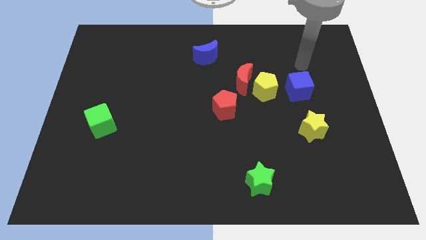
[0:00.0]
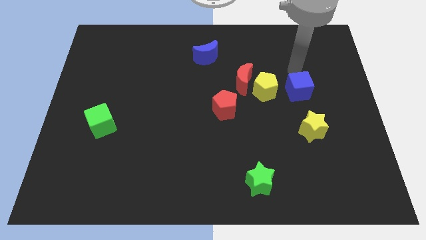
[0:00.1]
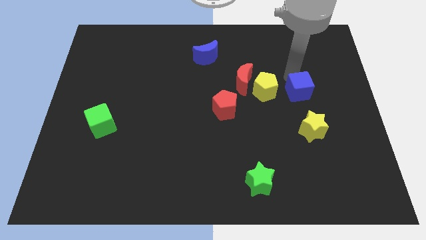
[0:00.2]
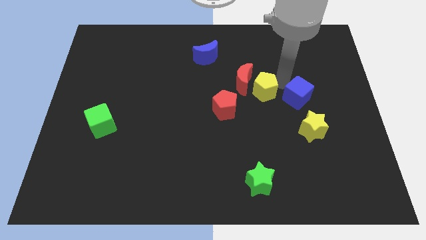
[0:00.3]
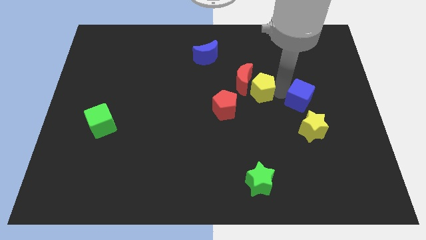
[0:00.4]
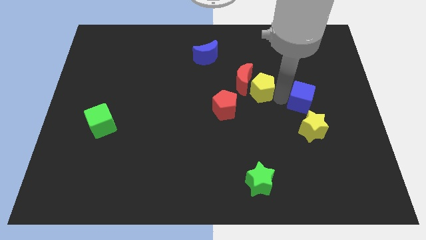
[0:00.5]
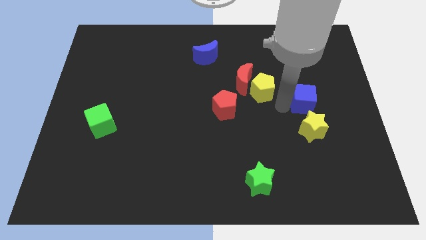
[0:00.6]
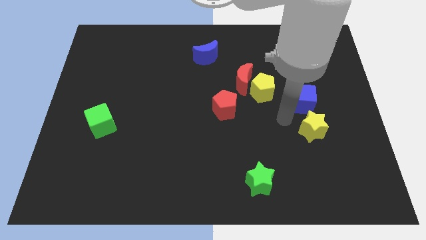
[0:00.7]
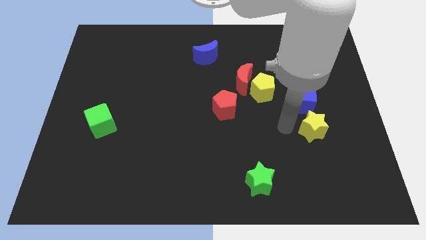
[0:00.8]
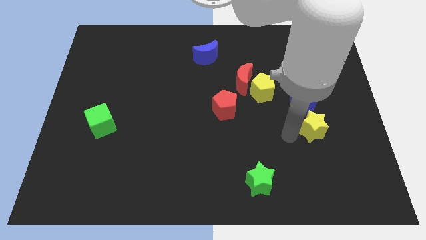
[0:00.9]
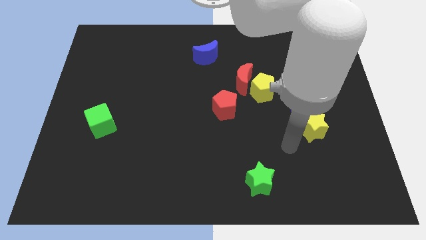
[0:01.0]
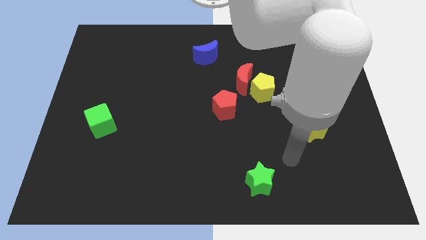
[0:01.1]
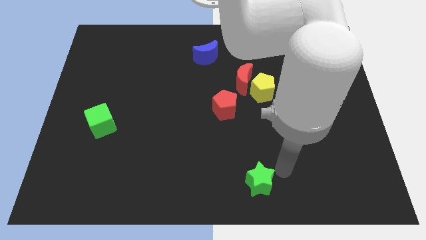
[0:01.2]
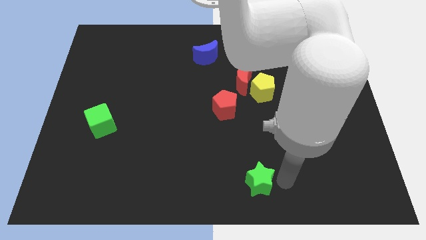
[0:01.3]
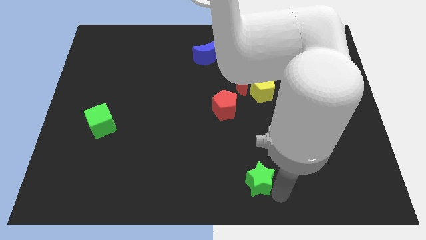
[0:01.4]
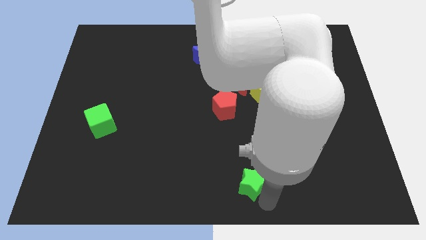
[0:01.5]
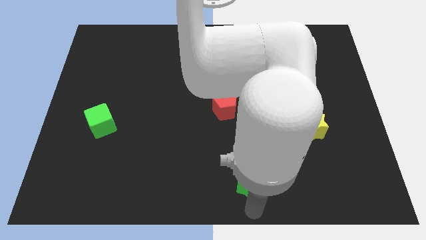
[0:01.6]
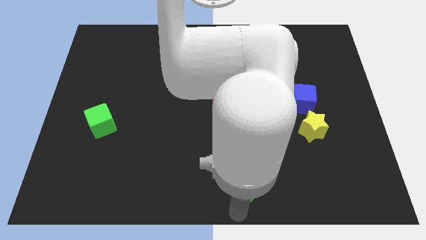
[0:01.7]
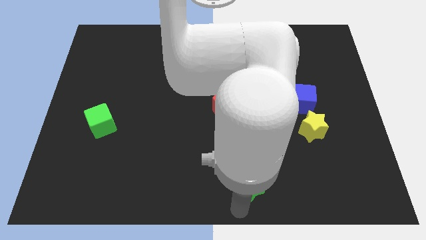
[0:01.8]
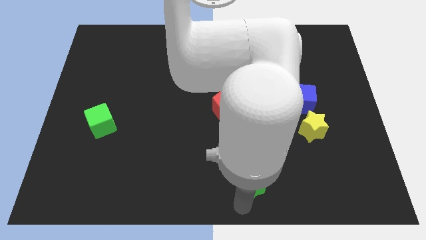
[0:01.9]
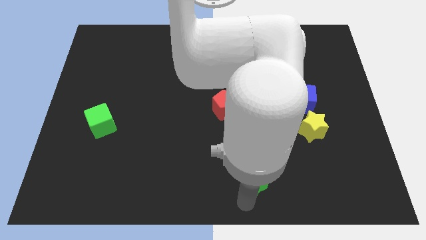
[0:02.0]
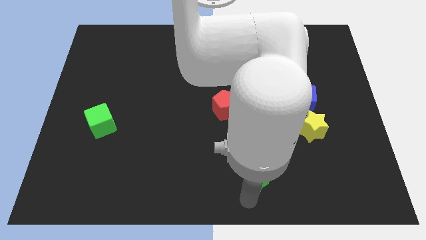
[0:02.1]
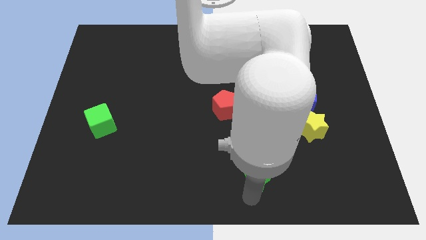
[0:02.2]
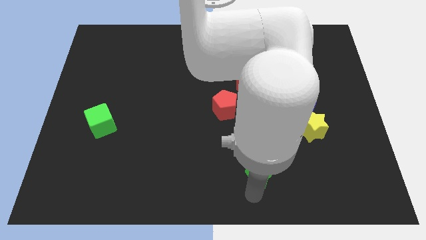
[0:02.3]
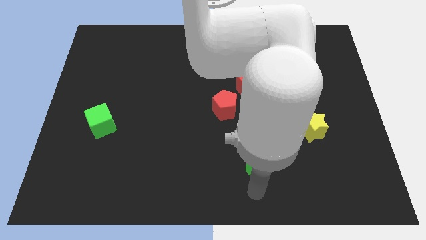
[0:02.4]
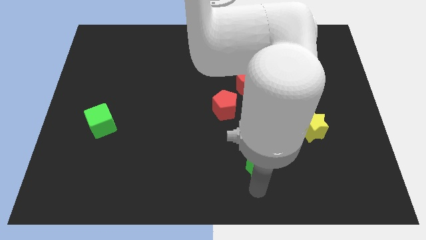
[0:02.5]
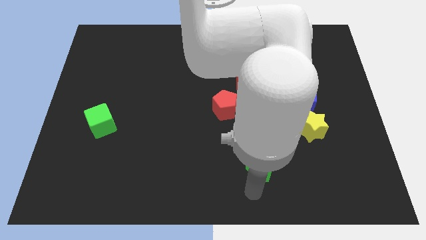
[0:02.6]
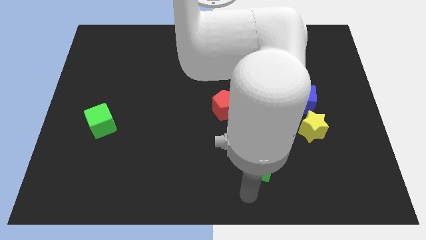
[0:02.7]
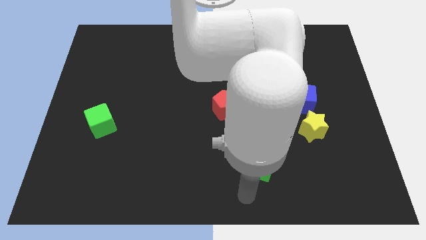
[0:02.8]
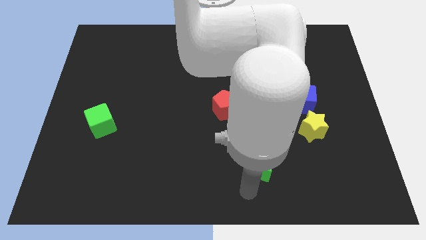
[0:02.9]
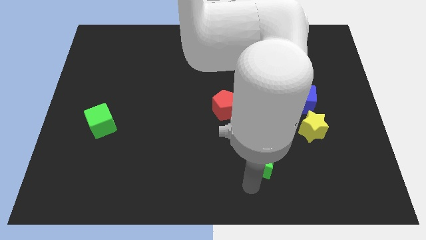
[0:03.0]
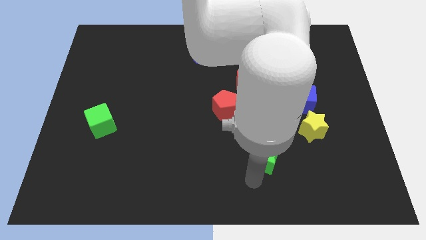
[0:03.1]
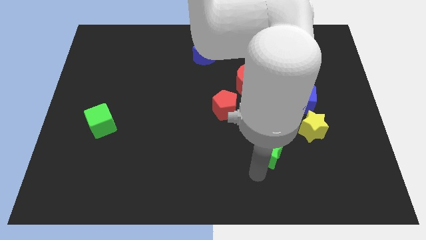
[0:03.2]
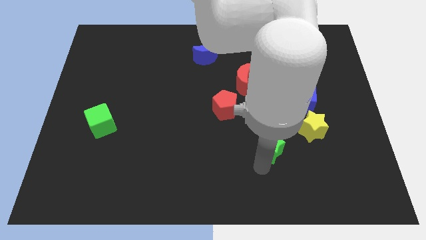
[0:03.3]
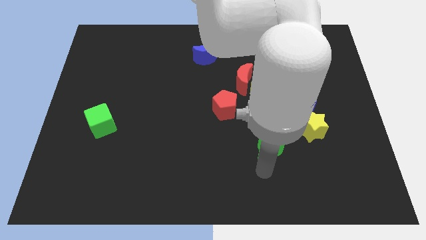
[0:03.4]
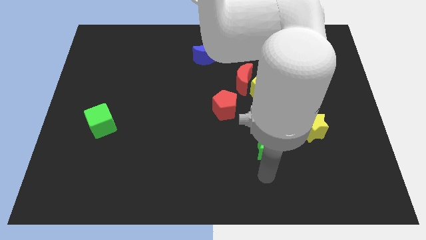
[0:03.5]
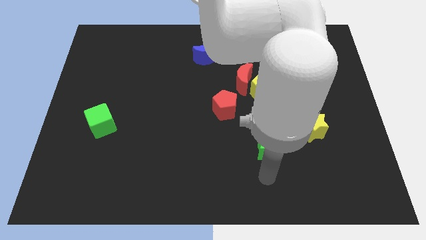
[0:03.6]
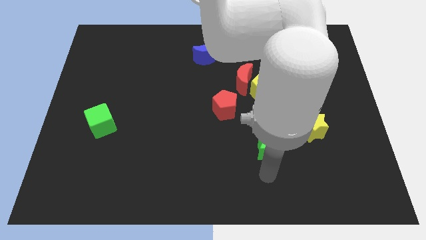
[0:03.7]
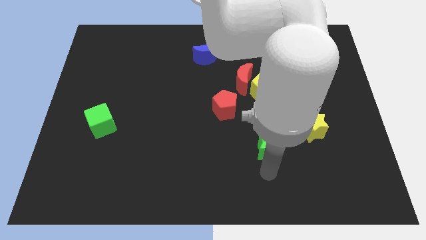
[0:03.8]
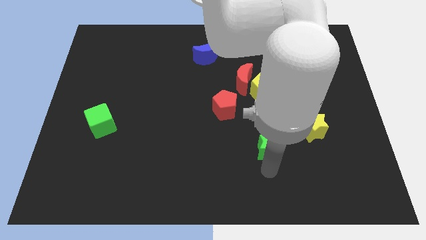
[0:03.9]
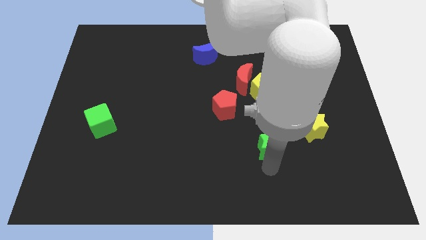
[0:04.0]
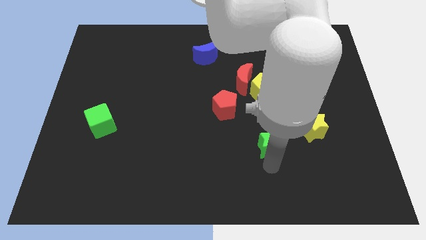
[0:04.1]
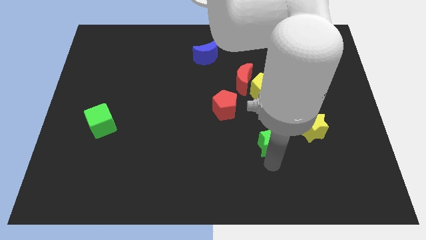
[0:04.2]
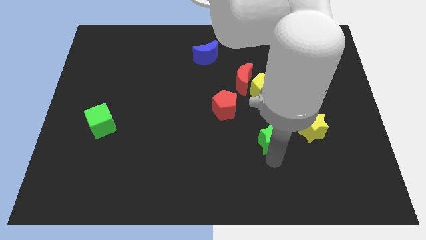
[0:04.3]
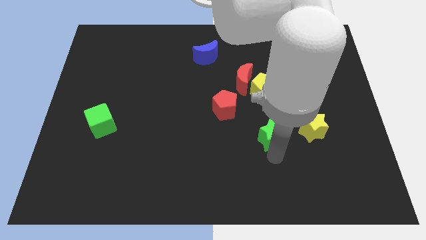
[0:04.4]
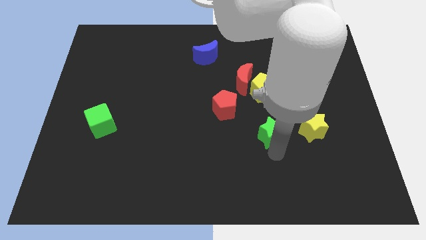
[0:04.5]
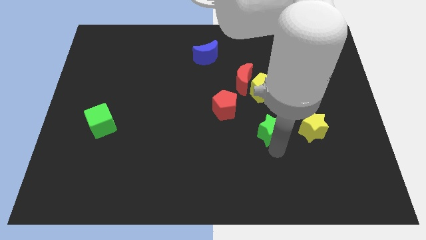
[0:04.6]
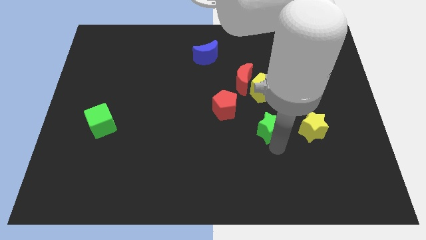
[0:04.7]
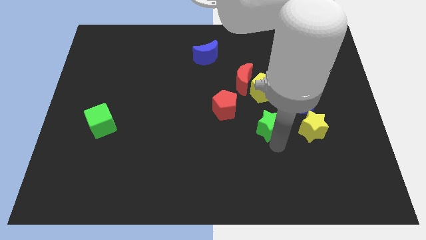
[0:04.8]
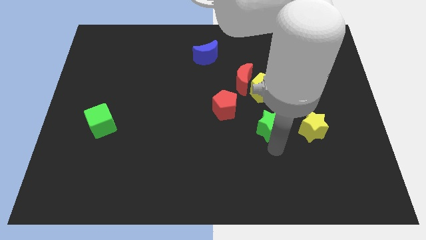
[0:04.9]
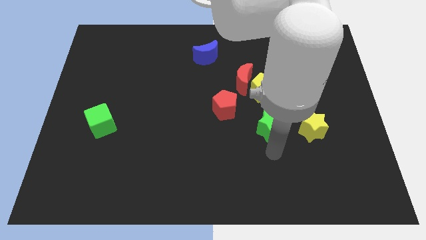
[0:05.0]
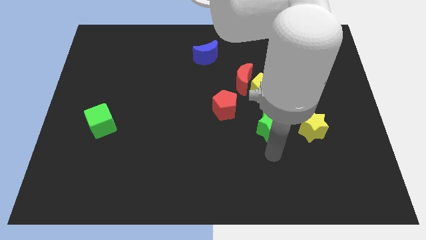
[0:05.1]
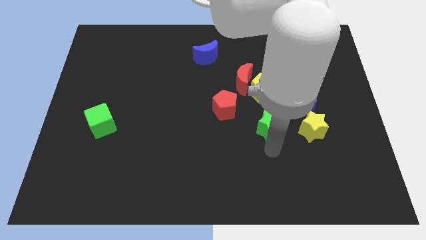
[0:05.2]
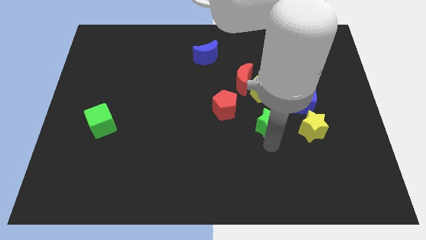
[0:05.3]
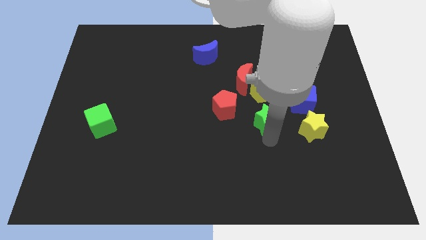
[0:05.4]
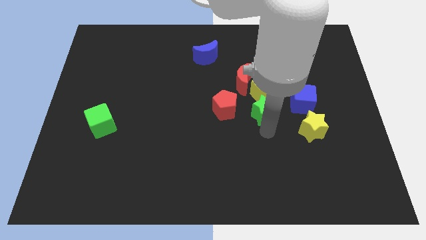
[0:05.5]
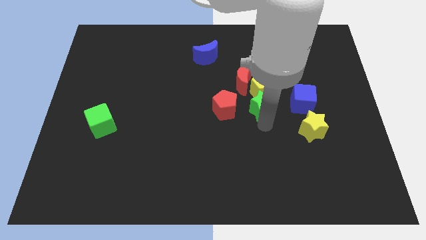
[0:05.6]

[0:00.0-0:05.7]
move the green star close to the yellow pentagon

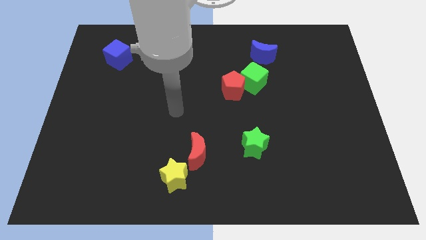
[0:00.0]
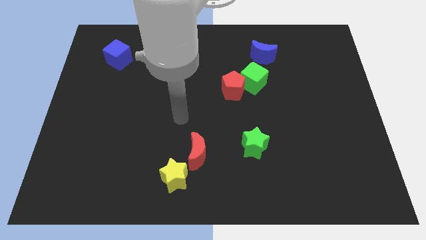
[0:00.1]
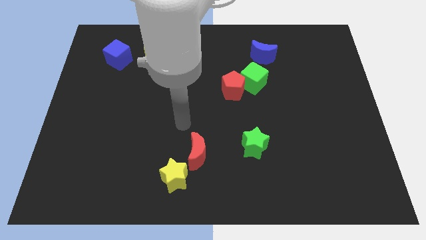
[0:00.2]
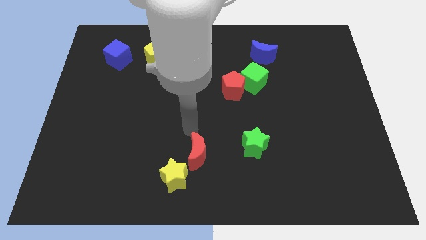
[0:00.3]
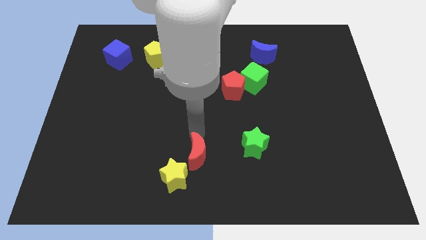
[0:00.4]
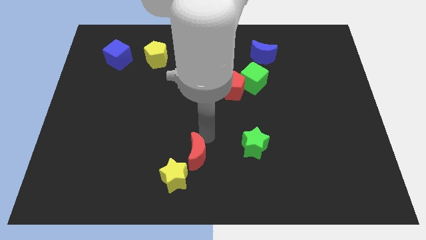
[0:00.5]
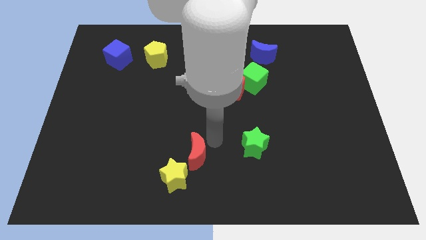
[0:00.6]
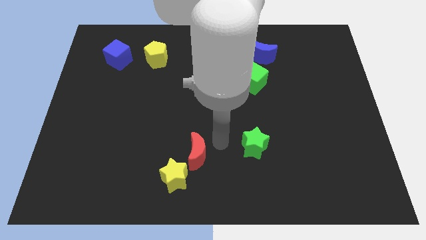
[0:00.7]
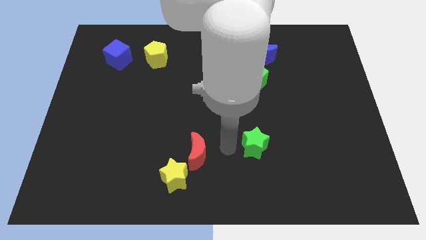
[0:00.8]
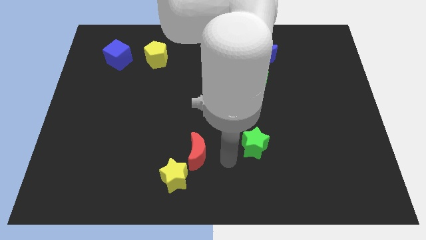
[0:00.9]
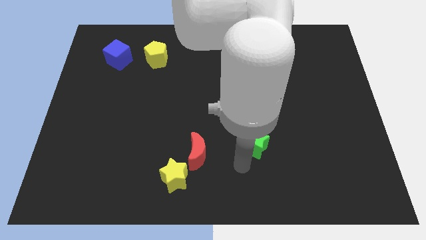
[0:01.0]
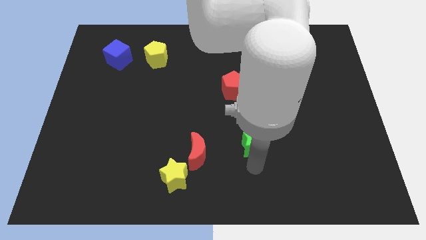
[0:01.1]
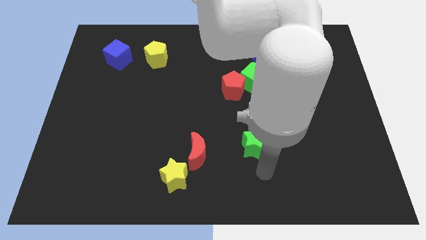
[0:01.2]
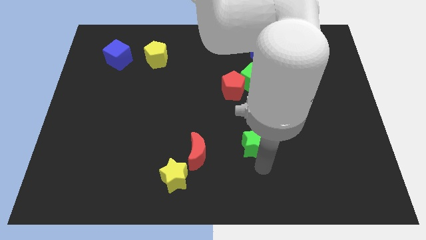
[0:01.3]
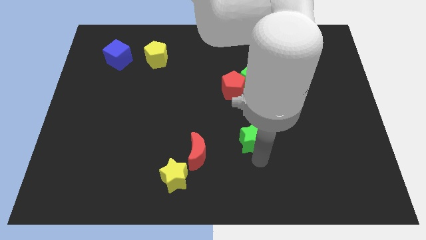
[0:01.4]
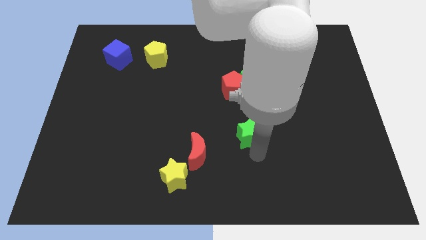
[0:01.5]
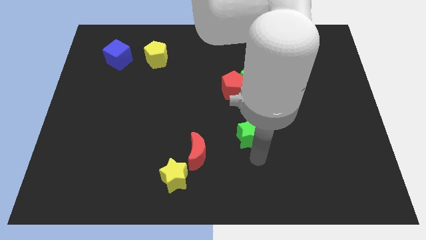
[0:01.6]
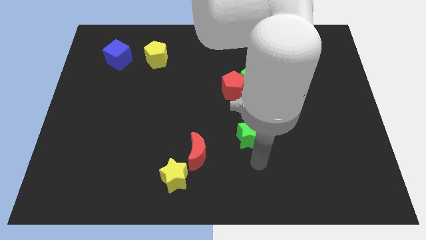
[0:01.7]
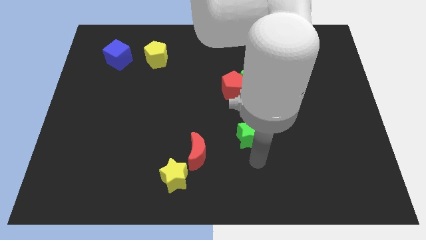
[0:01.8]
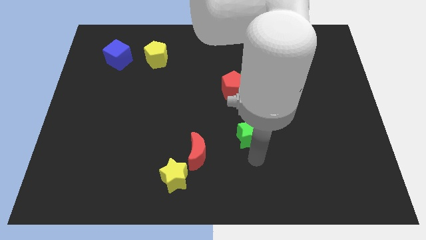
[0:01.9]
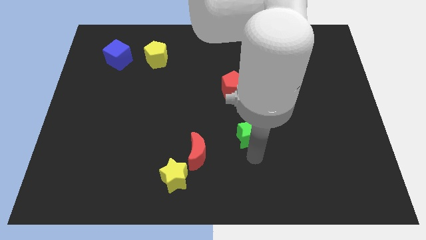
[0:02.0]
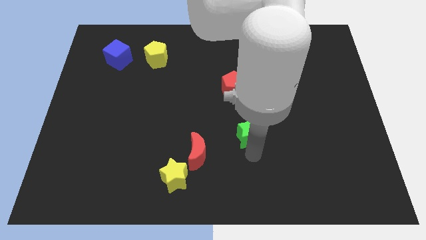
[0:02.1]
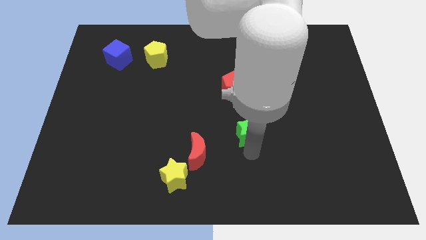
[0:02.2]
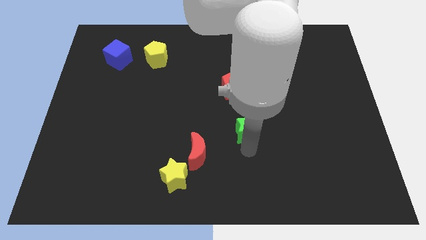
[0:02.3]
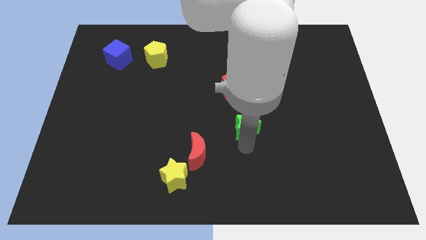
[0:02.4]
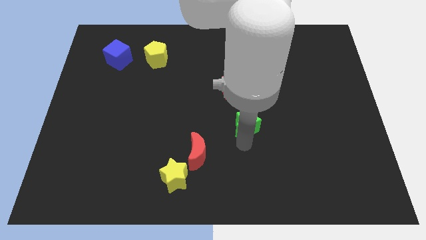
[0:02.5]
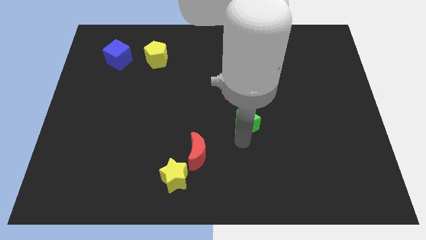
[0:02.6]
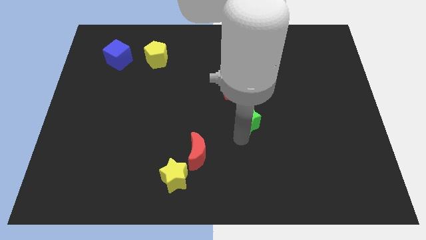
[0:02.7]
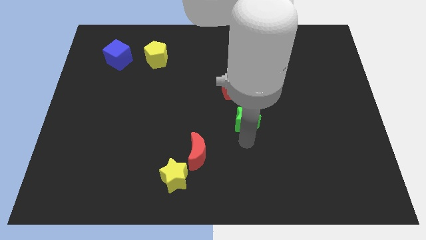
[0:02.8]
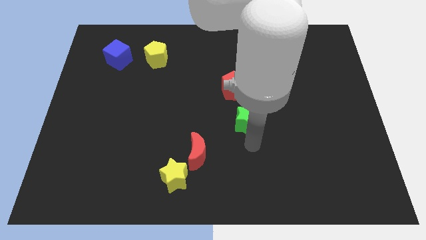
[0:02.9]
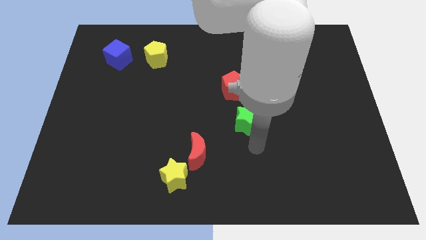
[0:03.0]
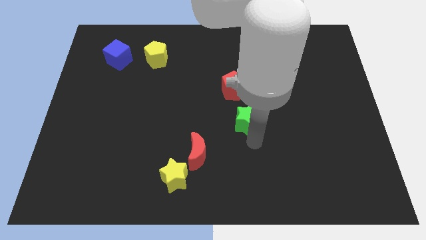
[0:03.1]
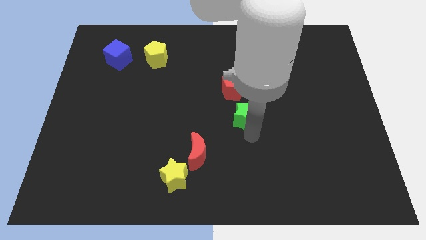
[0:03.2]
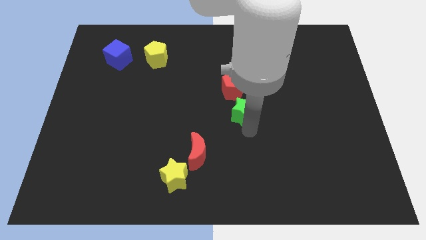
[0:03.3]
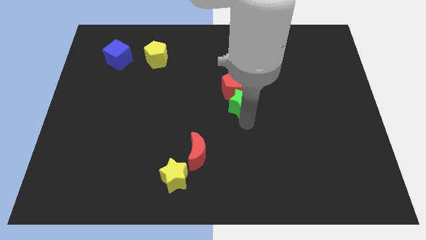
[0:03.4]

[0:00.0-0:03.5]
put the green star next to the red pentagon
